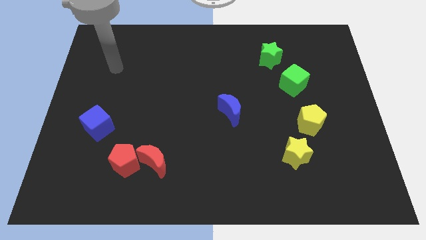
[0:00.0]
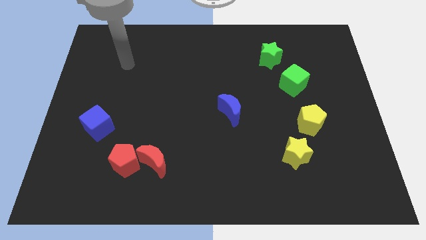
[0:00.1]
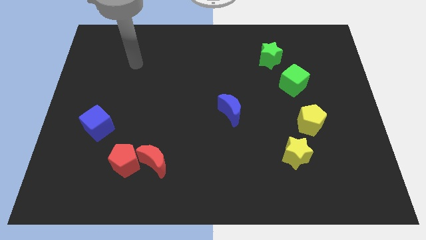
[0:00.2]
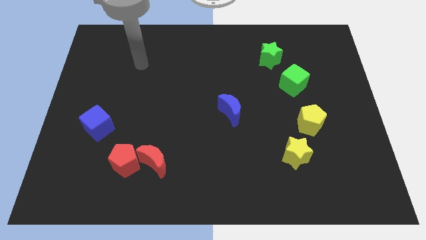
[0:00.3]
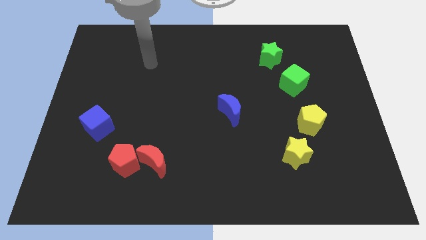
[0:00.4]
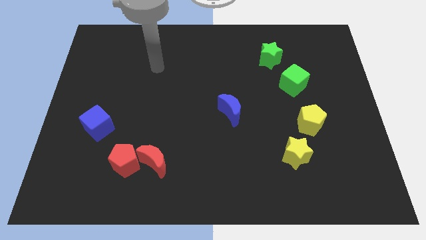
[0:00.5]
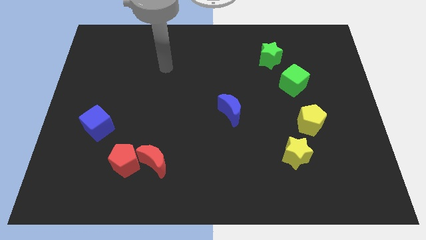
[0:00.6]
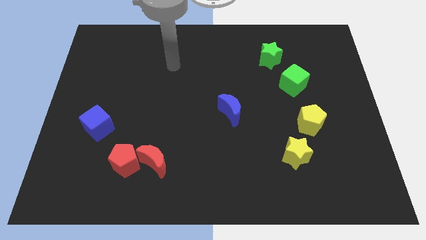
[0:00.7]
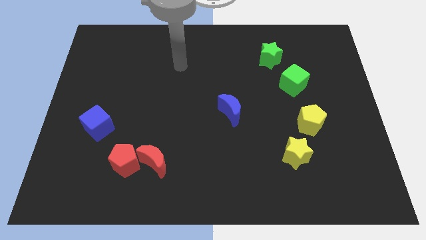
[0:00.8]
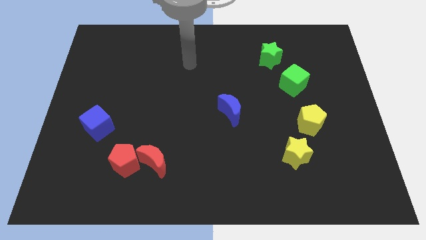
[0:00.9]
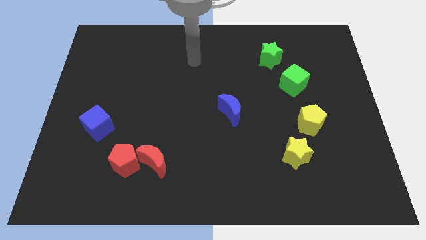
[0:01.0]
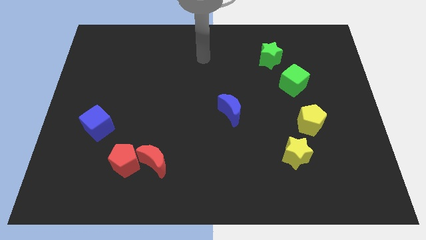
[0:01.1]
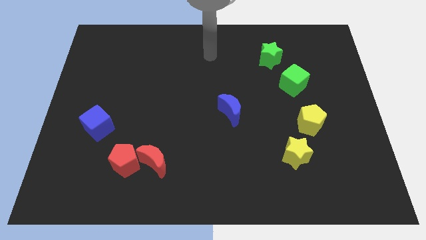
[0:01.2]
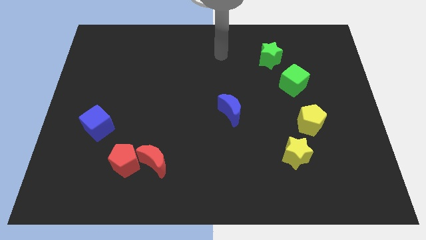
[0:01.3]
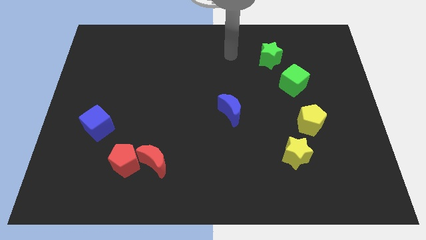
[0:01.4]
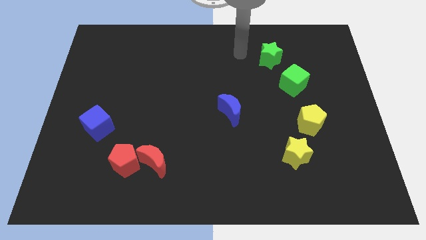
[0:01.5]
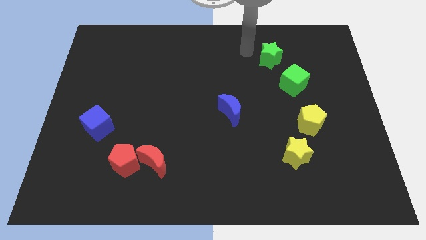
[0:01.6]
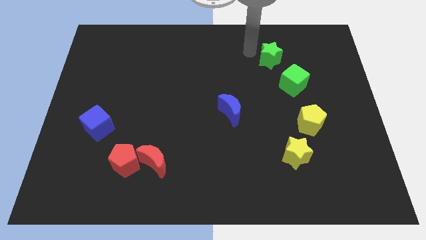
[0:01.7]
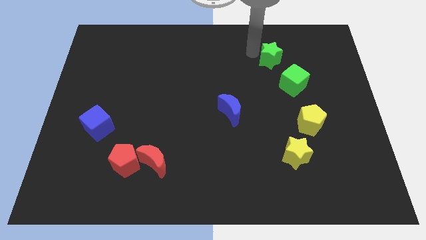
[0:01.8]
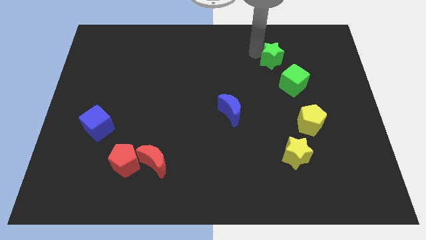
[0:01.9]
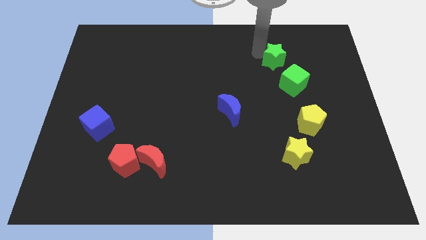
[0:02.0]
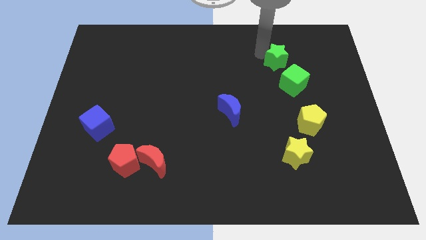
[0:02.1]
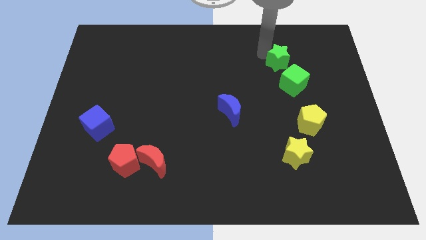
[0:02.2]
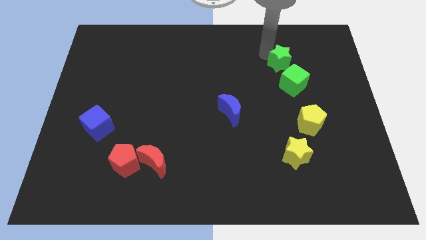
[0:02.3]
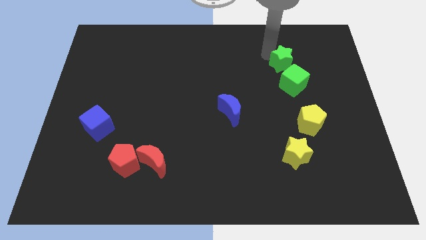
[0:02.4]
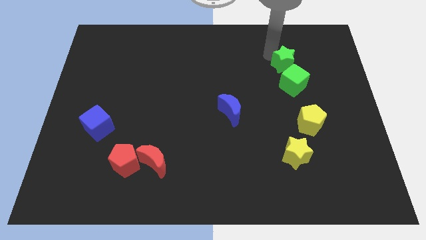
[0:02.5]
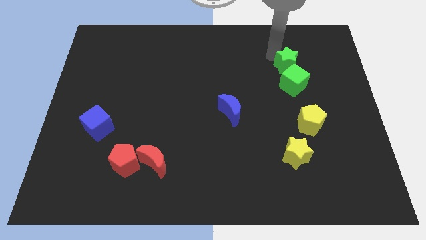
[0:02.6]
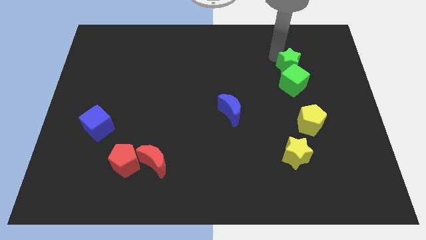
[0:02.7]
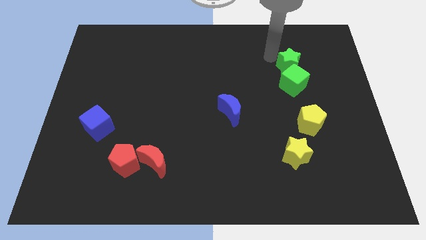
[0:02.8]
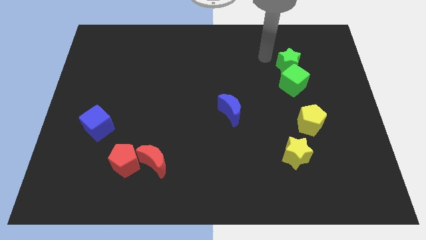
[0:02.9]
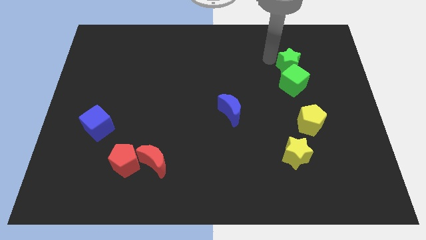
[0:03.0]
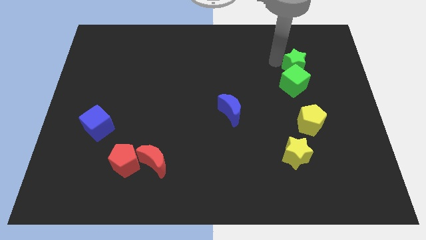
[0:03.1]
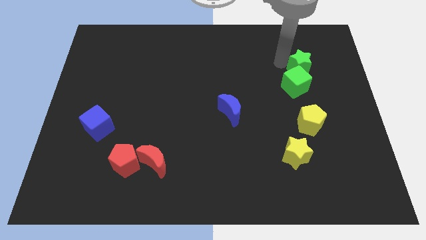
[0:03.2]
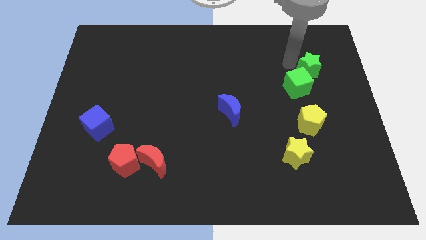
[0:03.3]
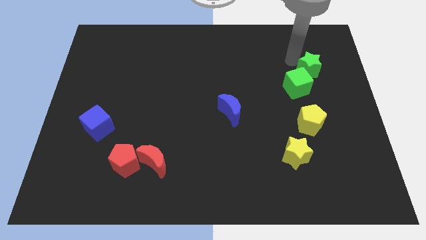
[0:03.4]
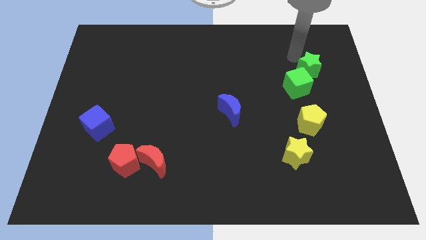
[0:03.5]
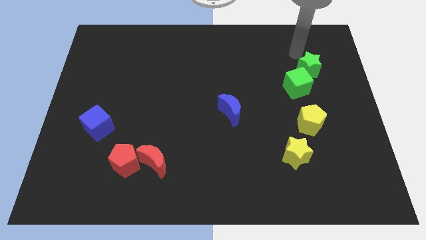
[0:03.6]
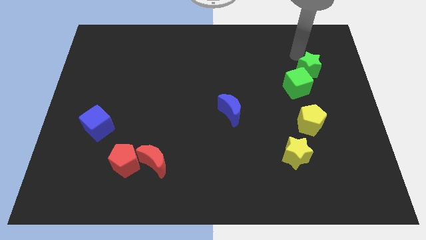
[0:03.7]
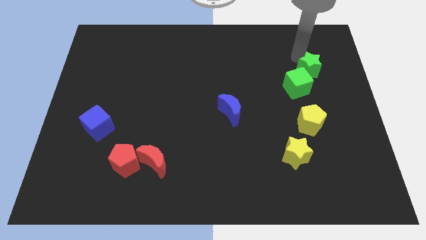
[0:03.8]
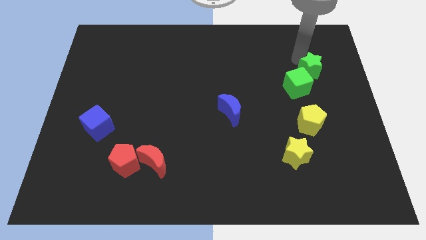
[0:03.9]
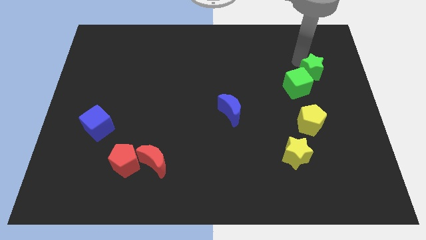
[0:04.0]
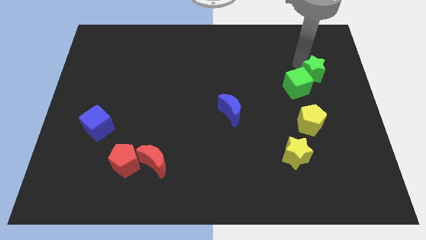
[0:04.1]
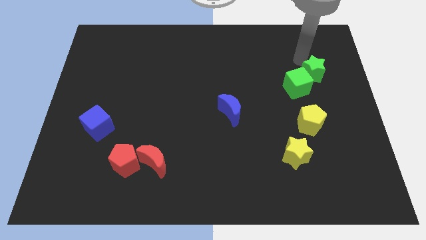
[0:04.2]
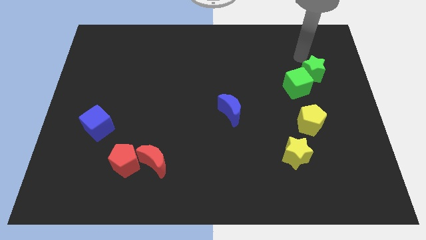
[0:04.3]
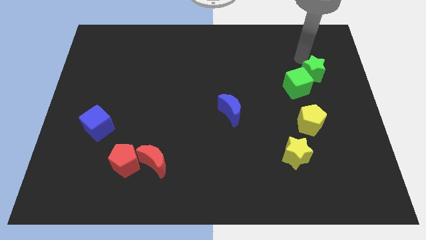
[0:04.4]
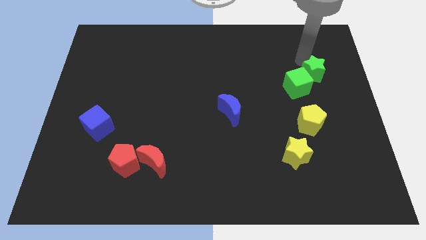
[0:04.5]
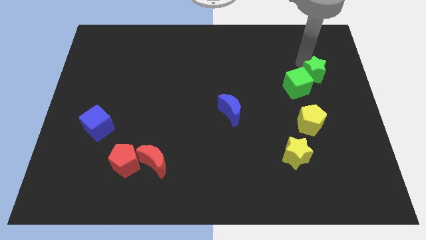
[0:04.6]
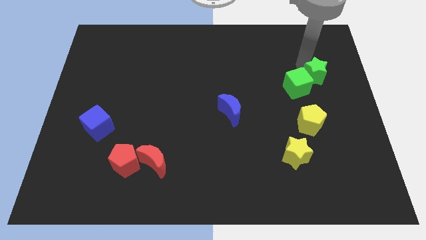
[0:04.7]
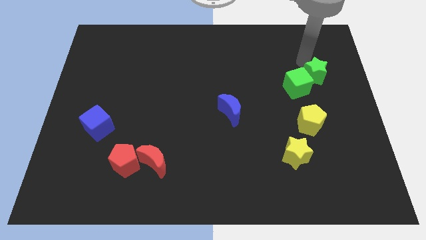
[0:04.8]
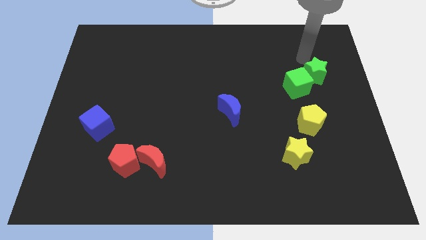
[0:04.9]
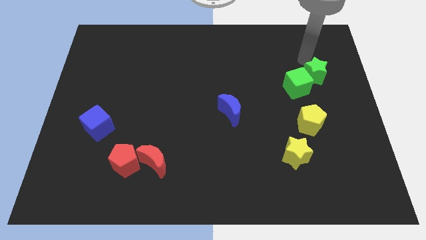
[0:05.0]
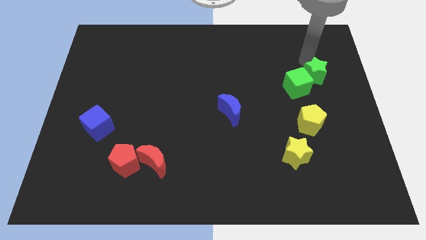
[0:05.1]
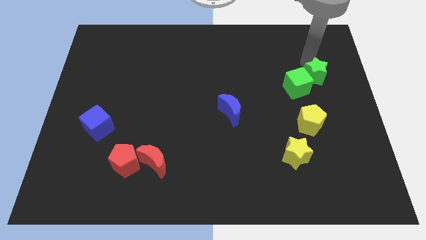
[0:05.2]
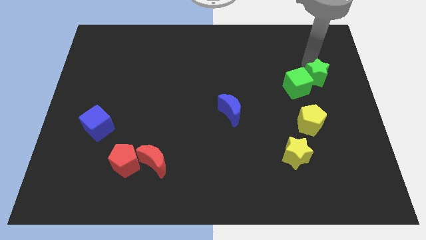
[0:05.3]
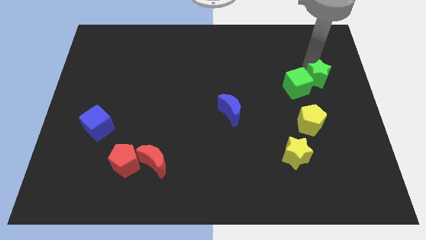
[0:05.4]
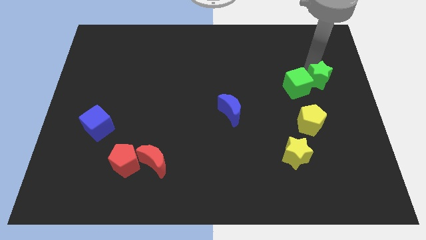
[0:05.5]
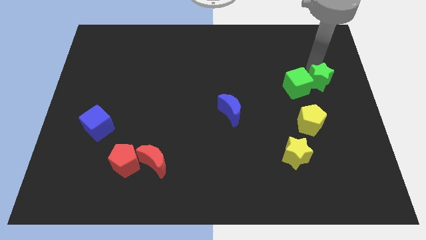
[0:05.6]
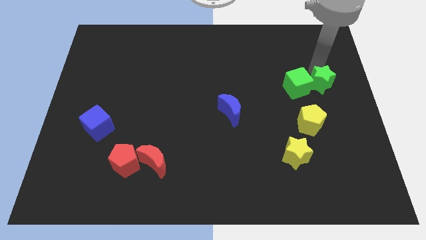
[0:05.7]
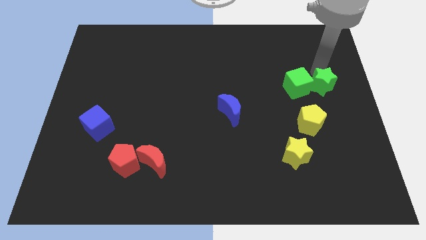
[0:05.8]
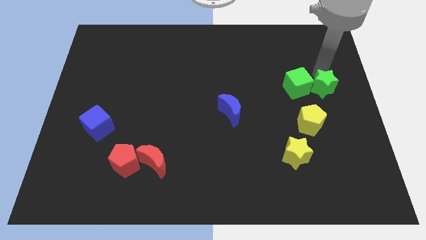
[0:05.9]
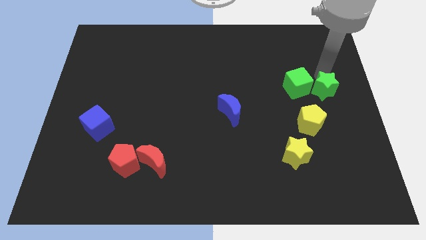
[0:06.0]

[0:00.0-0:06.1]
move the green star to the top right side of the yellow pentagon

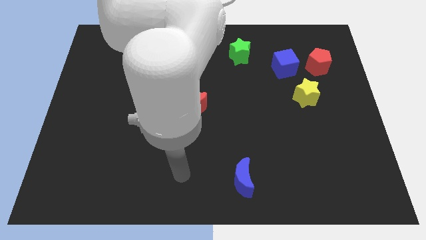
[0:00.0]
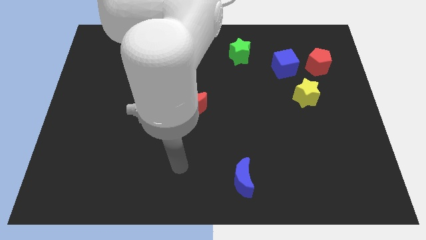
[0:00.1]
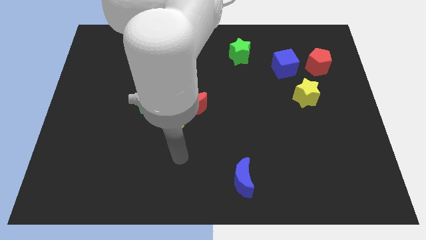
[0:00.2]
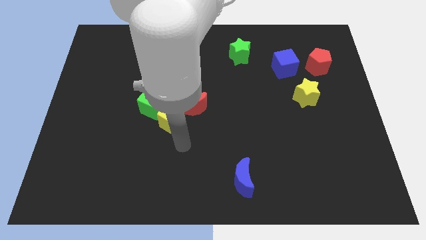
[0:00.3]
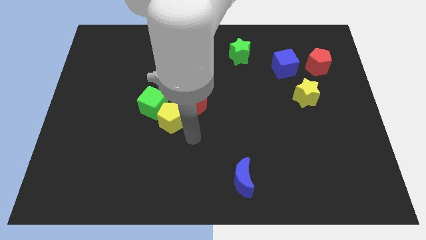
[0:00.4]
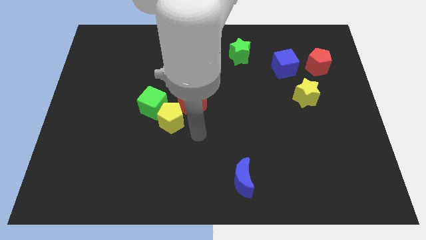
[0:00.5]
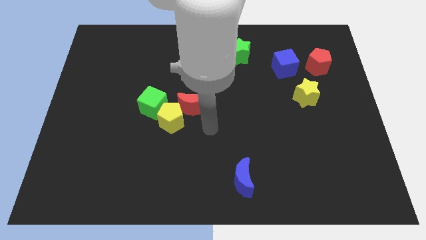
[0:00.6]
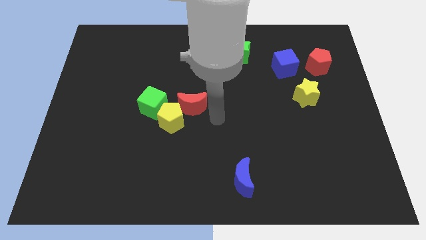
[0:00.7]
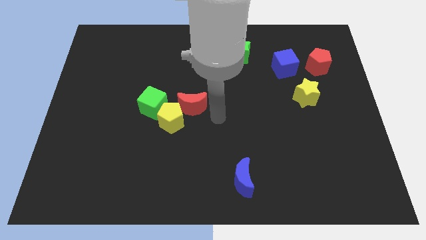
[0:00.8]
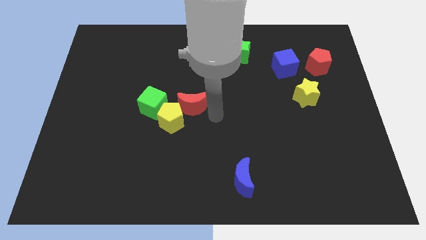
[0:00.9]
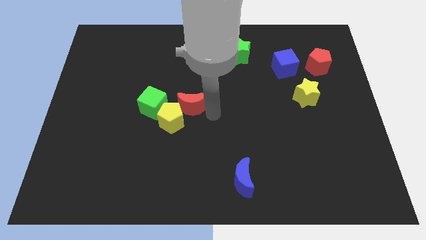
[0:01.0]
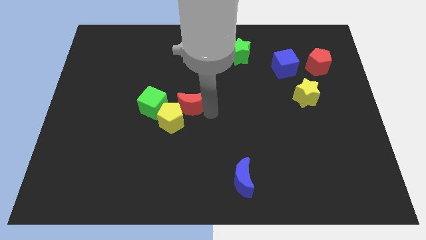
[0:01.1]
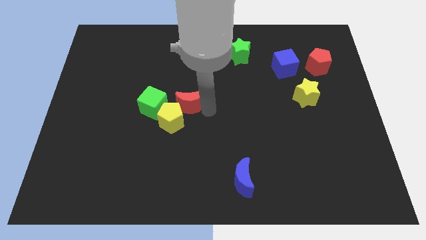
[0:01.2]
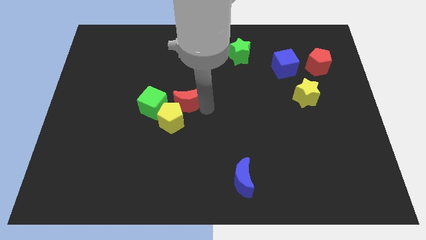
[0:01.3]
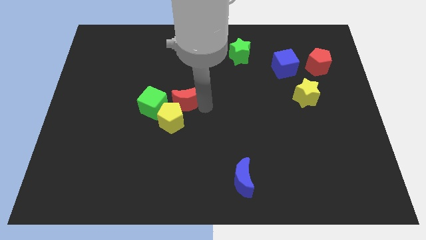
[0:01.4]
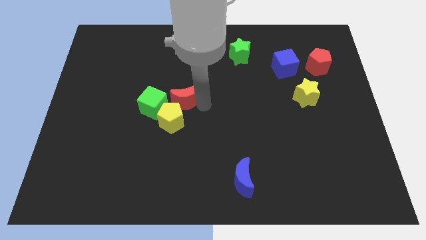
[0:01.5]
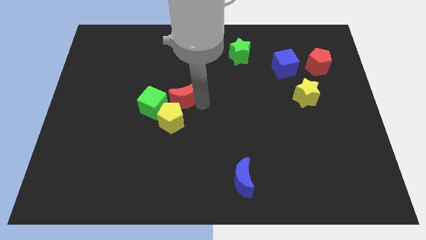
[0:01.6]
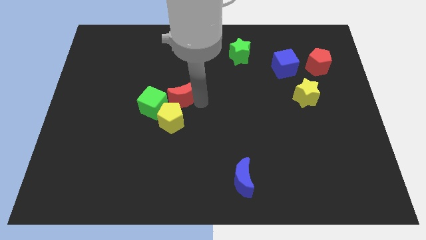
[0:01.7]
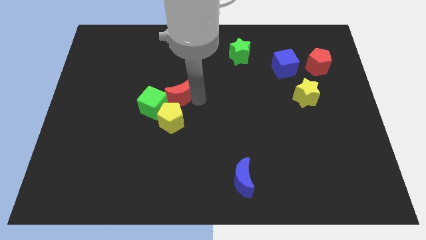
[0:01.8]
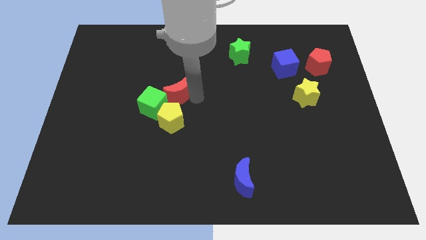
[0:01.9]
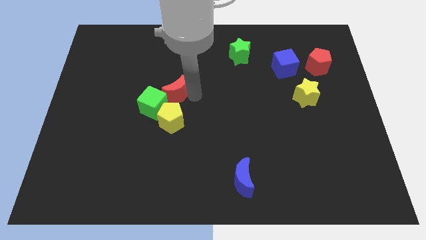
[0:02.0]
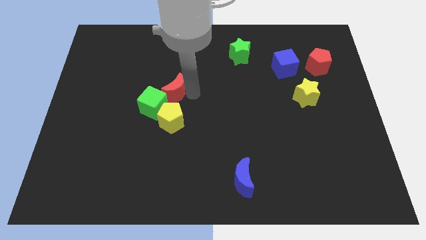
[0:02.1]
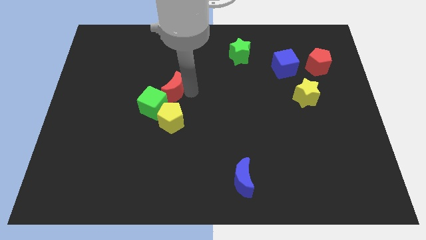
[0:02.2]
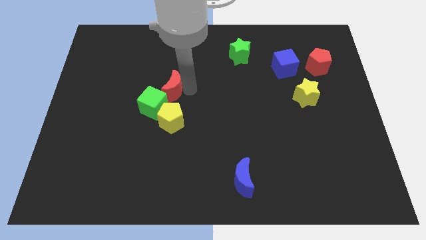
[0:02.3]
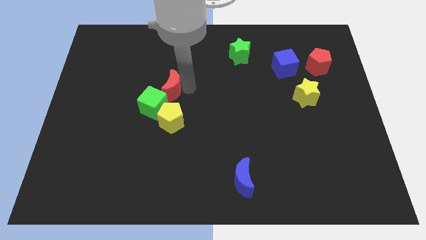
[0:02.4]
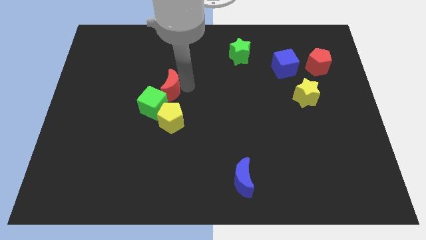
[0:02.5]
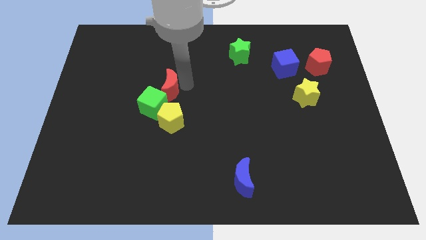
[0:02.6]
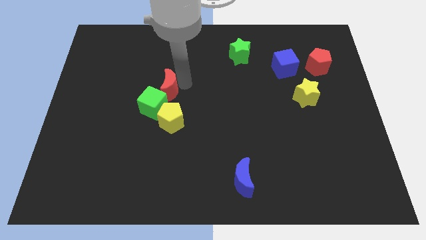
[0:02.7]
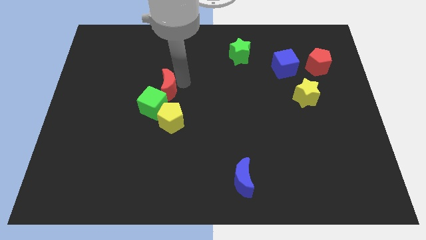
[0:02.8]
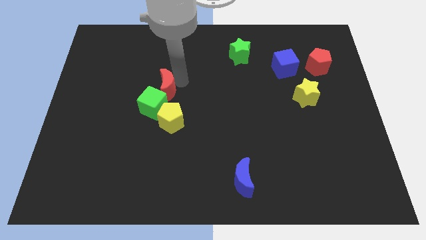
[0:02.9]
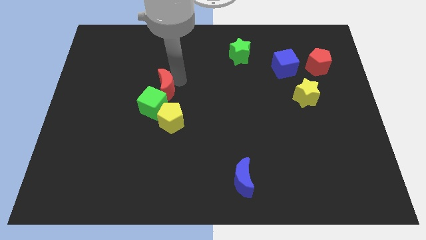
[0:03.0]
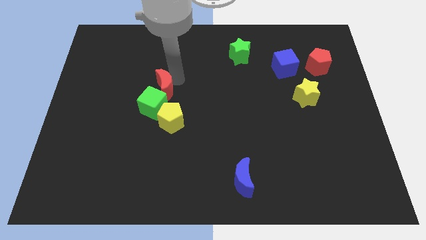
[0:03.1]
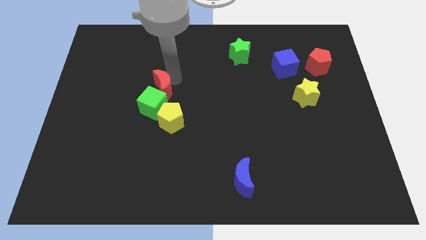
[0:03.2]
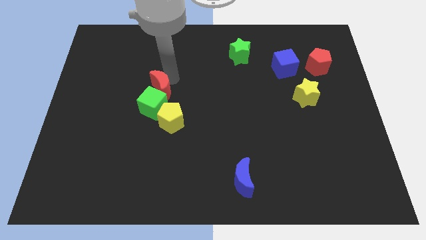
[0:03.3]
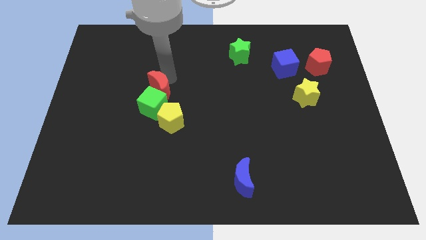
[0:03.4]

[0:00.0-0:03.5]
put the red moon to the top left side of the yellow pentagon
